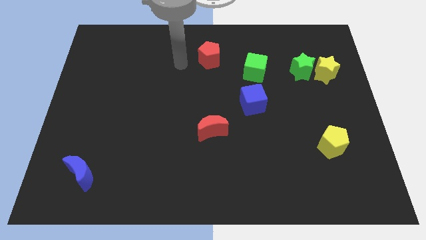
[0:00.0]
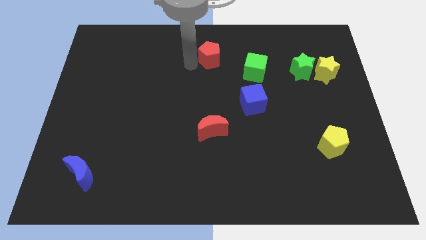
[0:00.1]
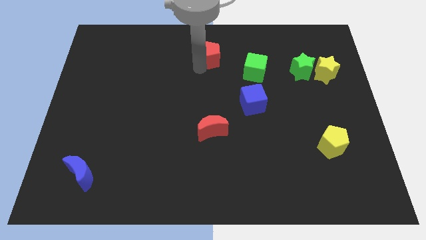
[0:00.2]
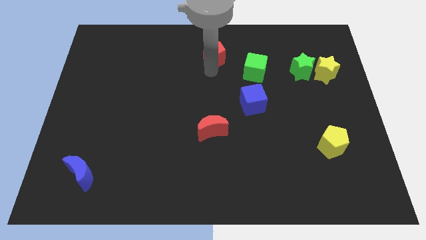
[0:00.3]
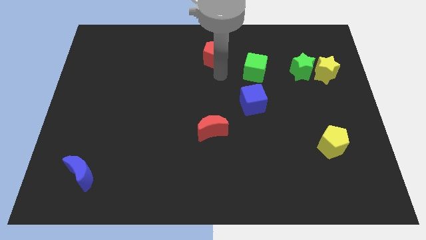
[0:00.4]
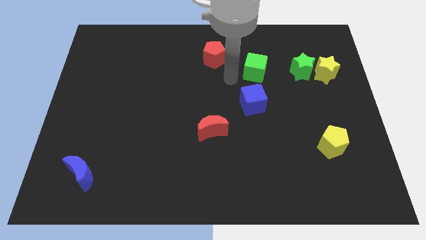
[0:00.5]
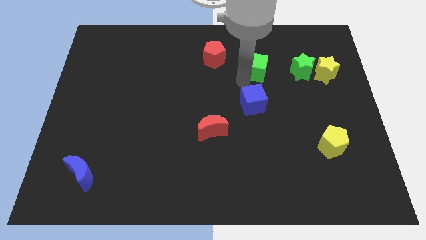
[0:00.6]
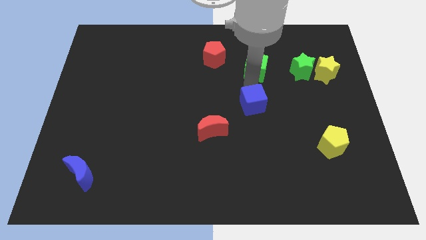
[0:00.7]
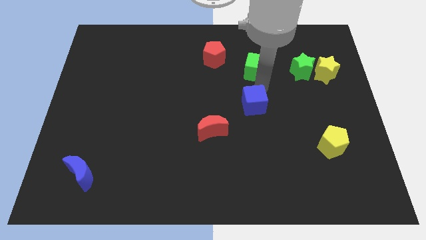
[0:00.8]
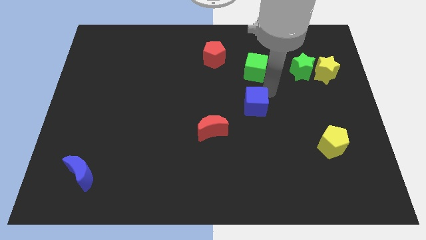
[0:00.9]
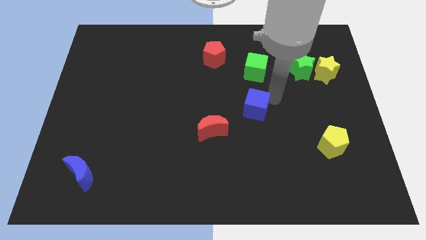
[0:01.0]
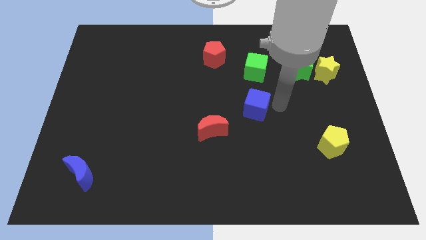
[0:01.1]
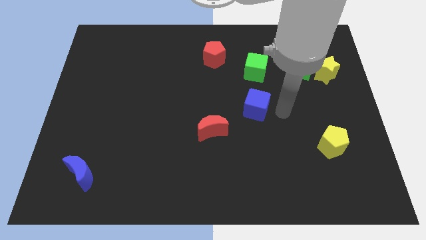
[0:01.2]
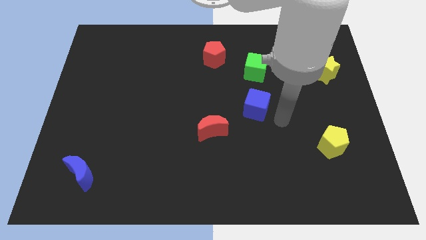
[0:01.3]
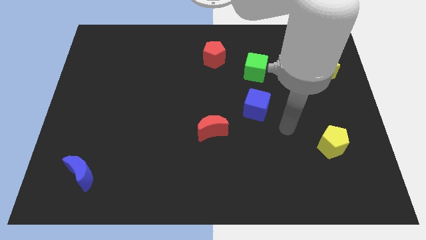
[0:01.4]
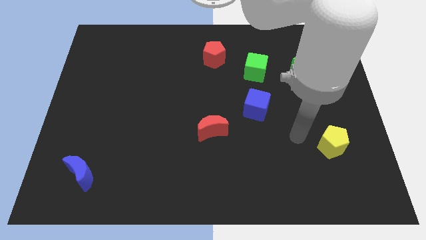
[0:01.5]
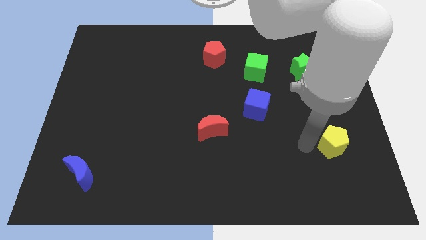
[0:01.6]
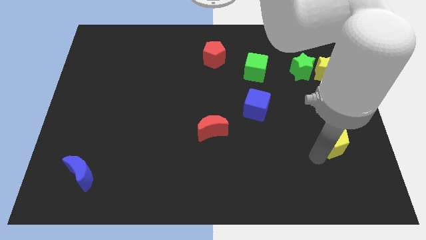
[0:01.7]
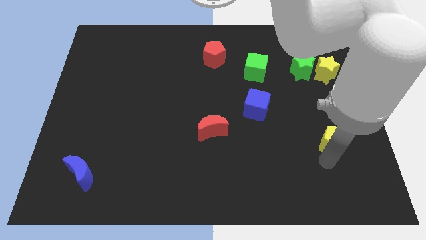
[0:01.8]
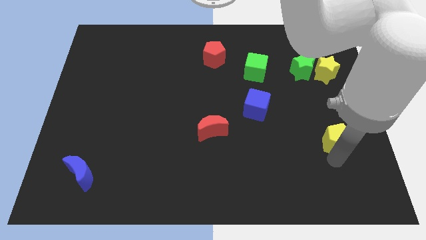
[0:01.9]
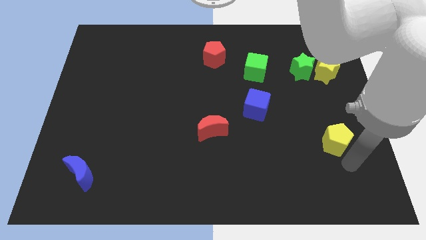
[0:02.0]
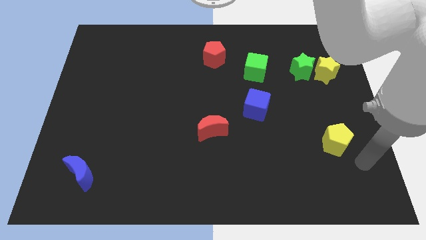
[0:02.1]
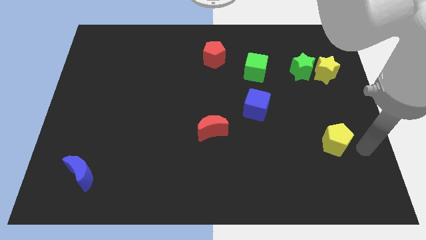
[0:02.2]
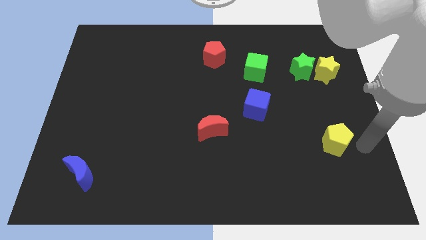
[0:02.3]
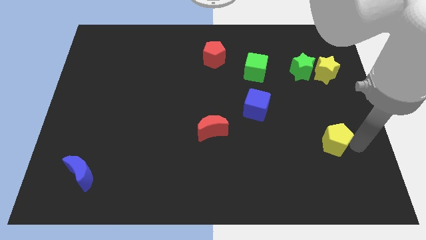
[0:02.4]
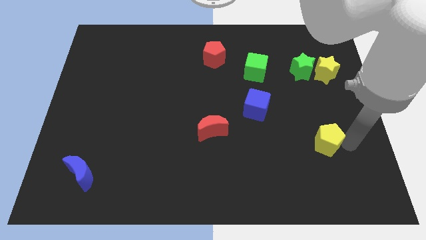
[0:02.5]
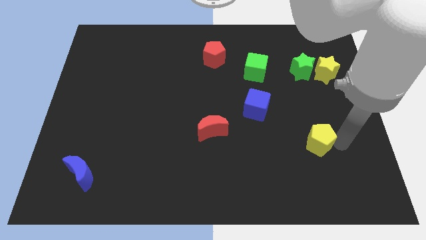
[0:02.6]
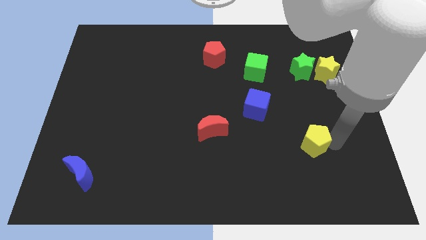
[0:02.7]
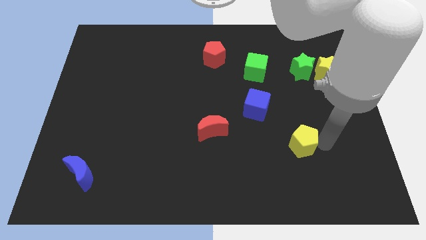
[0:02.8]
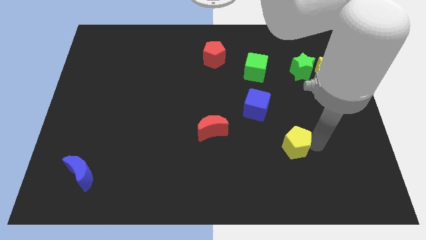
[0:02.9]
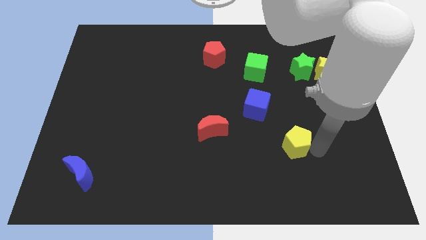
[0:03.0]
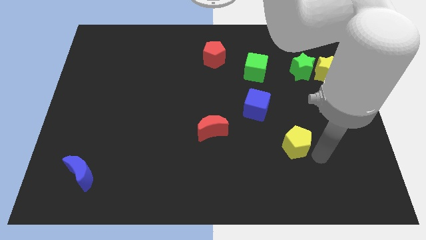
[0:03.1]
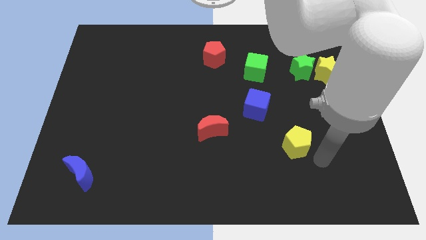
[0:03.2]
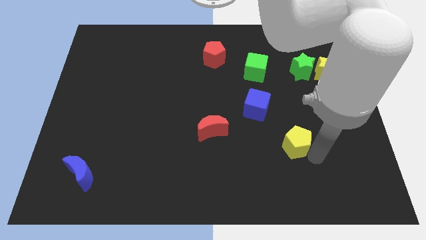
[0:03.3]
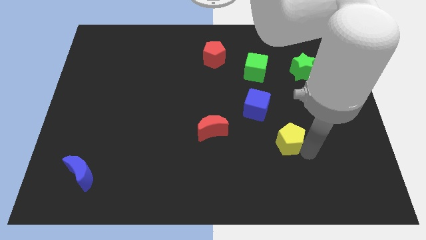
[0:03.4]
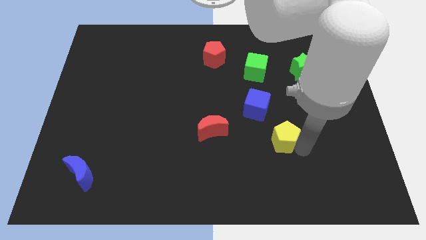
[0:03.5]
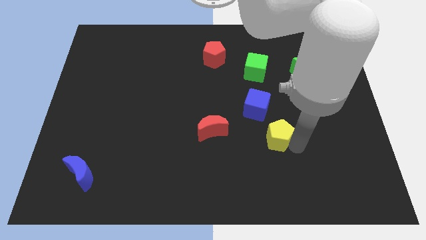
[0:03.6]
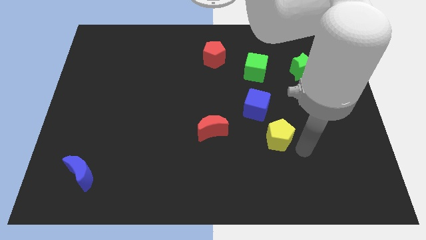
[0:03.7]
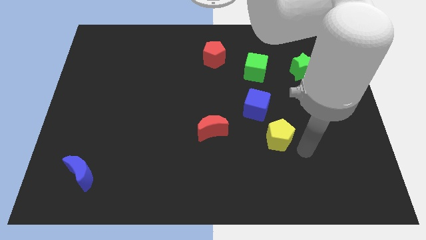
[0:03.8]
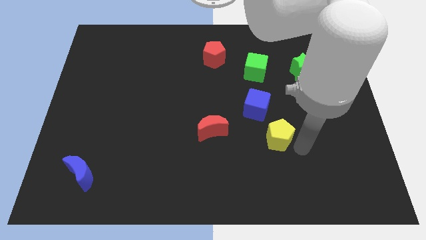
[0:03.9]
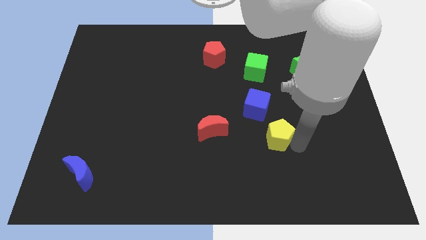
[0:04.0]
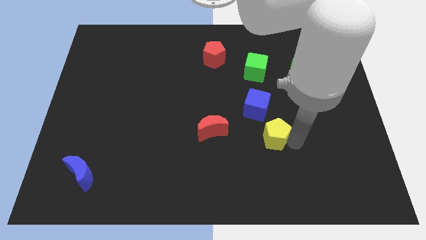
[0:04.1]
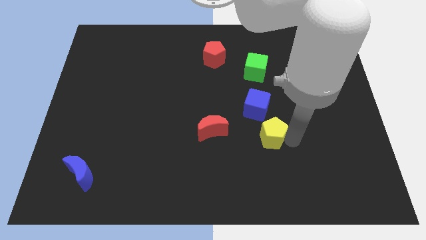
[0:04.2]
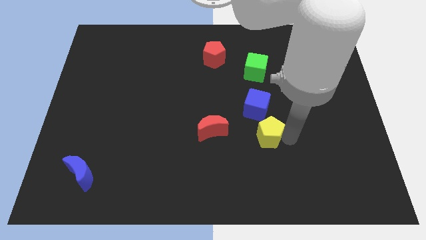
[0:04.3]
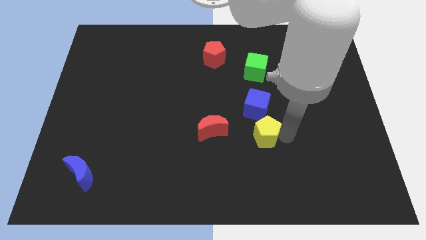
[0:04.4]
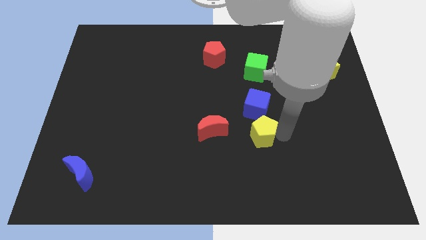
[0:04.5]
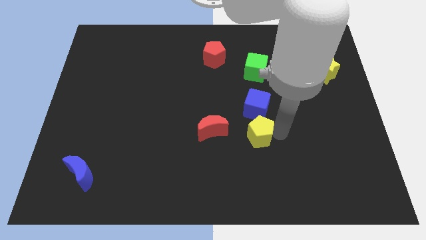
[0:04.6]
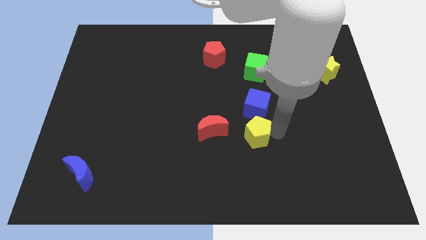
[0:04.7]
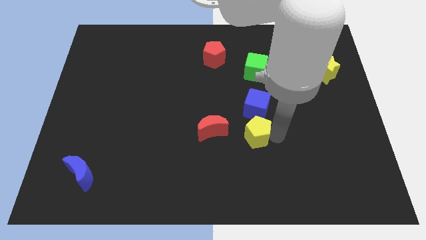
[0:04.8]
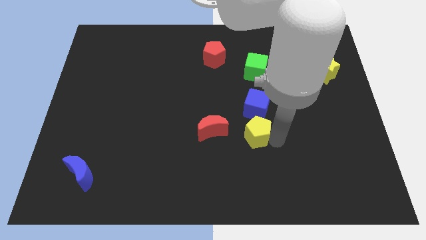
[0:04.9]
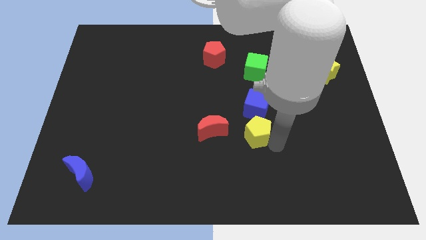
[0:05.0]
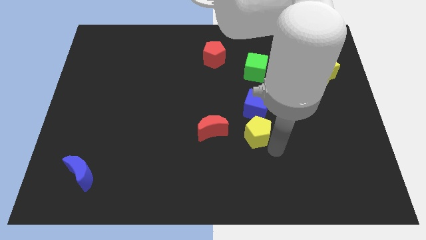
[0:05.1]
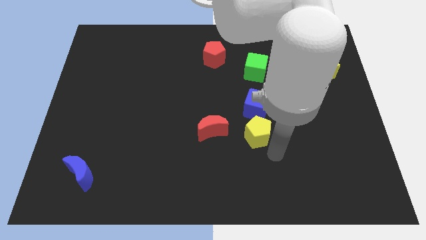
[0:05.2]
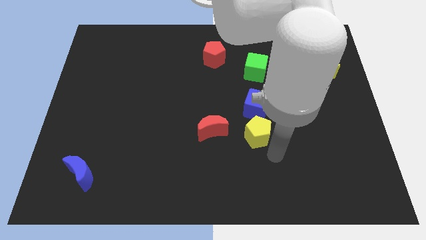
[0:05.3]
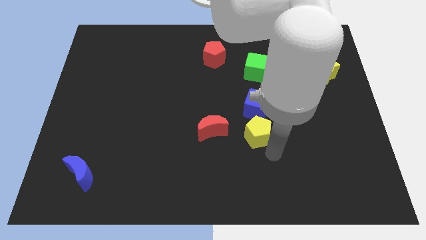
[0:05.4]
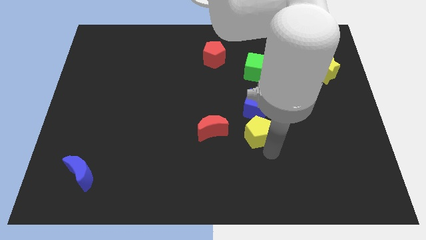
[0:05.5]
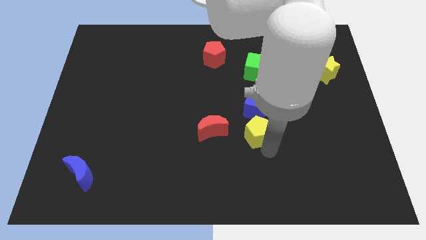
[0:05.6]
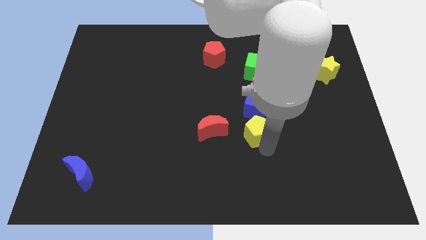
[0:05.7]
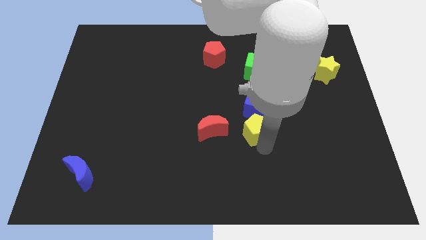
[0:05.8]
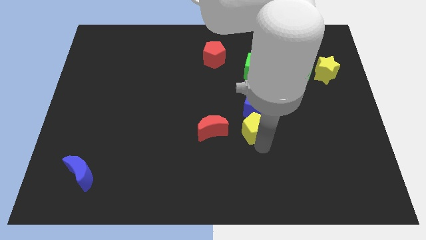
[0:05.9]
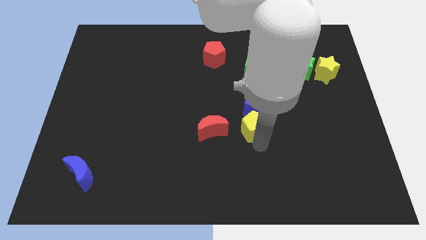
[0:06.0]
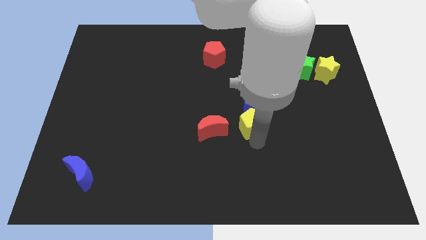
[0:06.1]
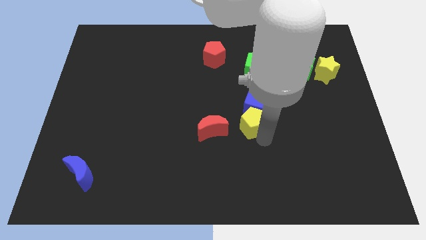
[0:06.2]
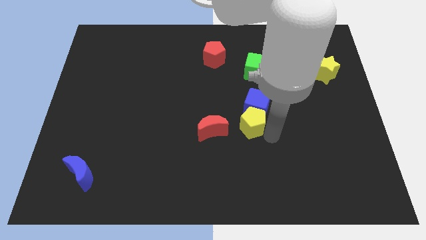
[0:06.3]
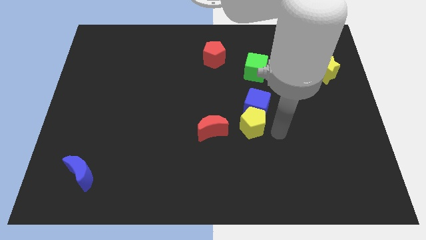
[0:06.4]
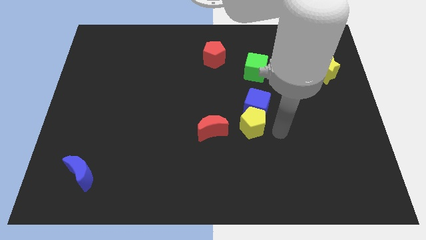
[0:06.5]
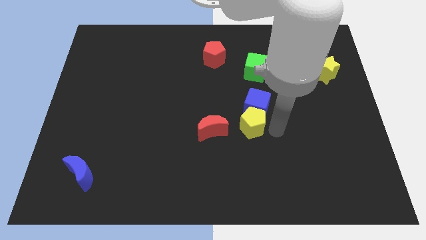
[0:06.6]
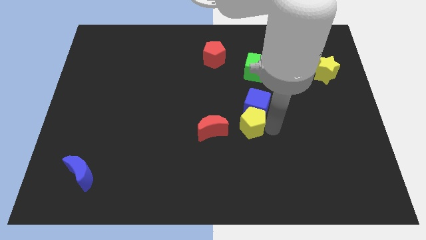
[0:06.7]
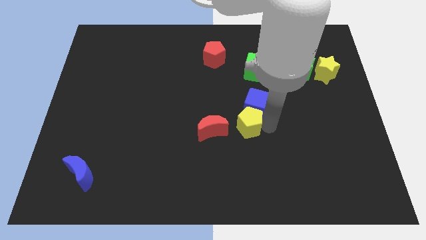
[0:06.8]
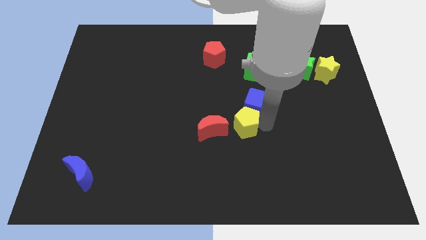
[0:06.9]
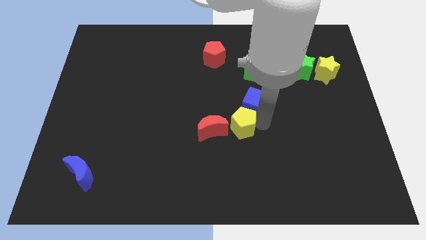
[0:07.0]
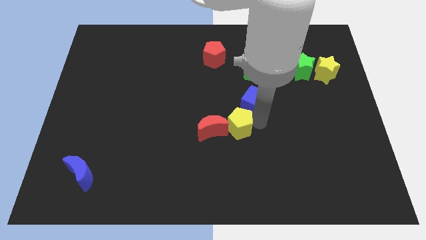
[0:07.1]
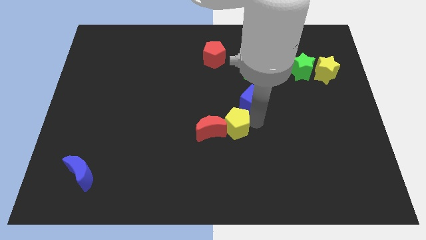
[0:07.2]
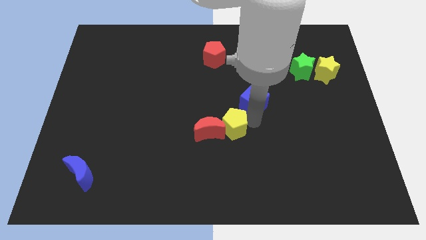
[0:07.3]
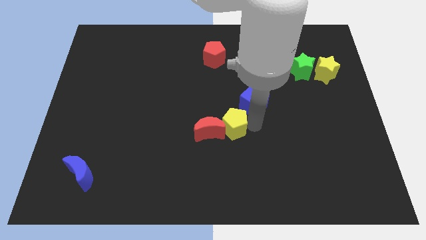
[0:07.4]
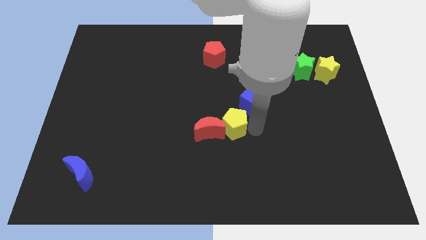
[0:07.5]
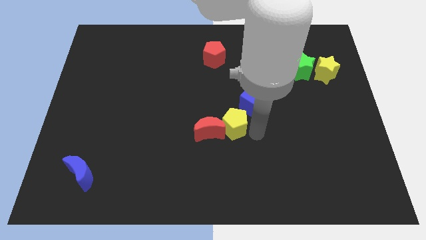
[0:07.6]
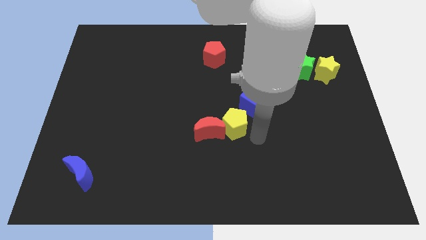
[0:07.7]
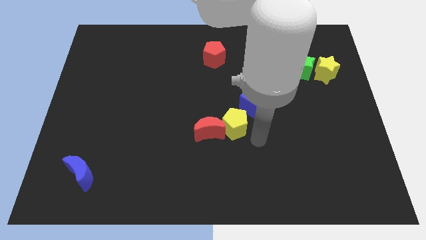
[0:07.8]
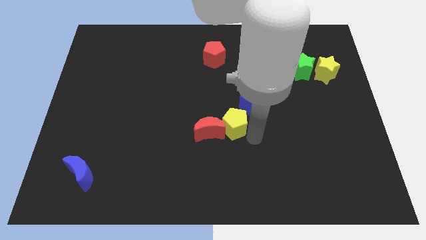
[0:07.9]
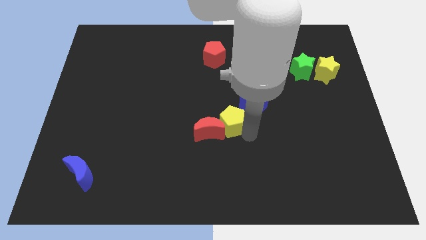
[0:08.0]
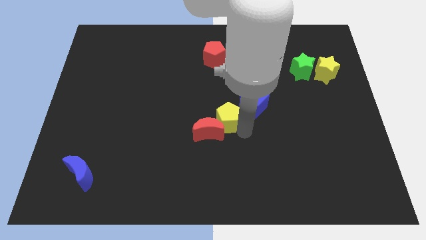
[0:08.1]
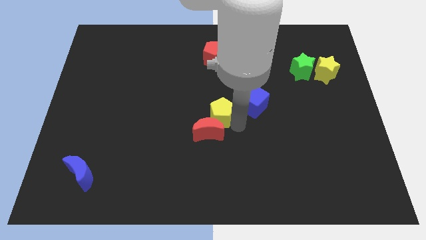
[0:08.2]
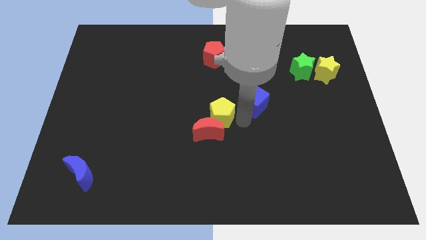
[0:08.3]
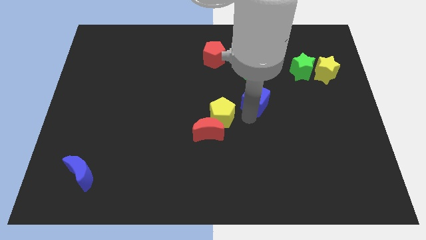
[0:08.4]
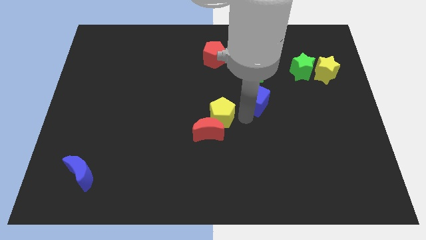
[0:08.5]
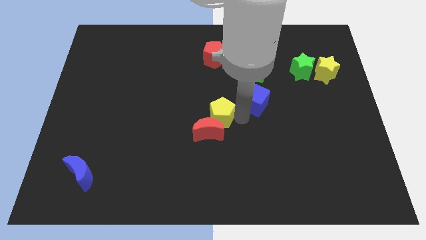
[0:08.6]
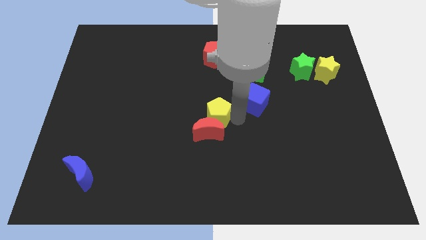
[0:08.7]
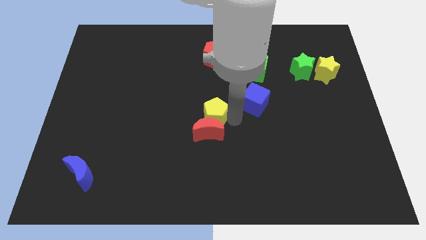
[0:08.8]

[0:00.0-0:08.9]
move the yellow pentagon diagonally up and to the left of the red moon
